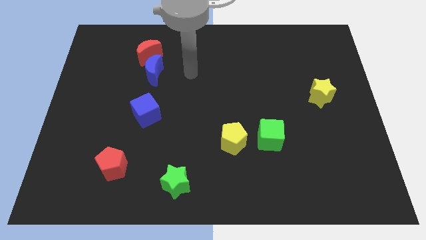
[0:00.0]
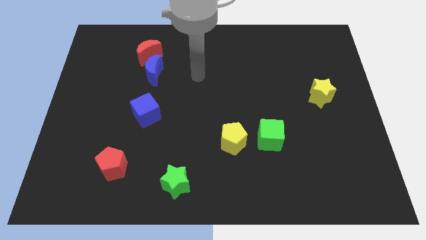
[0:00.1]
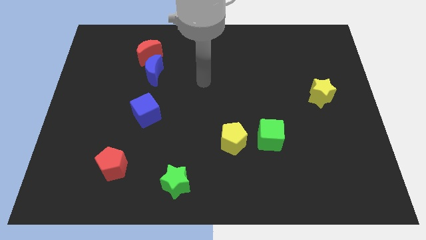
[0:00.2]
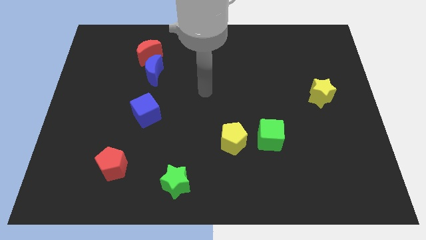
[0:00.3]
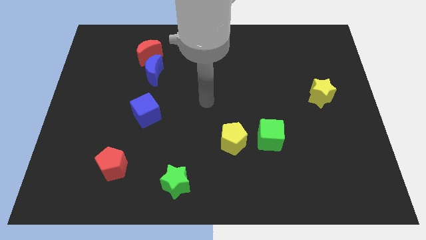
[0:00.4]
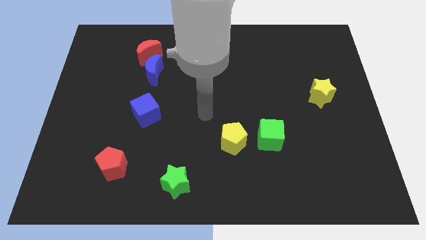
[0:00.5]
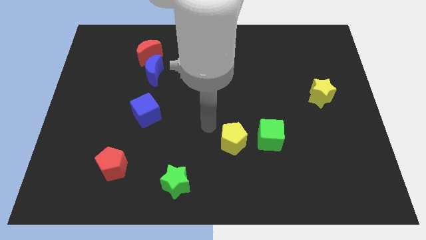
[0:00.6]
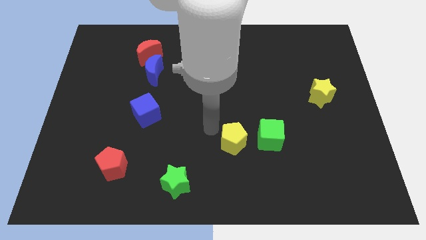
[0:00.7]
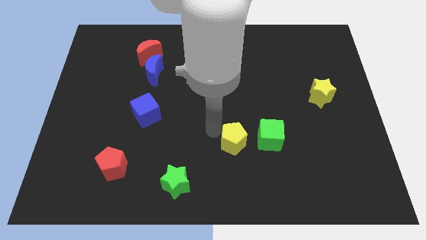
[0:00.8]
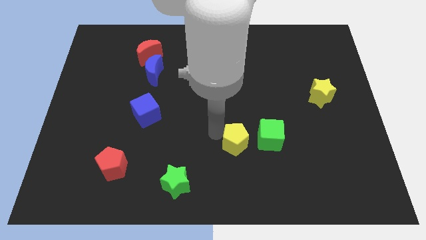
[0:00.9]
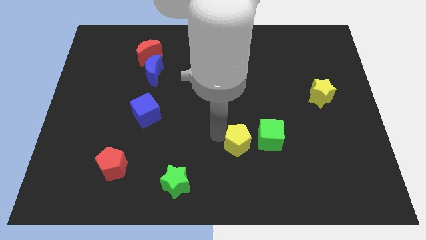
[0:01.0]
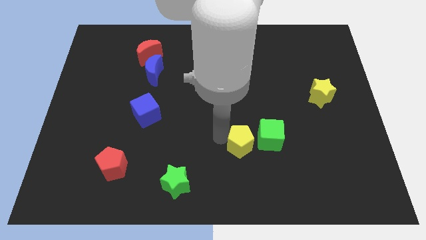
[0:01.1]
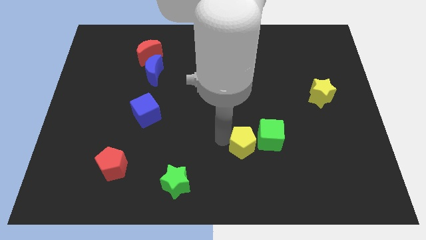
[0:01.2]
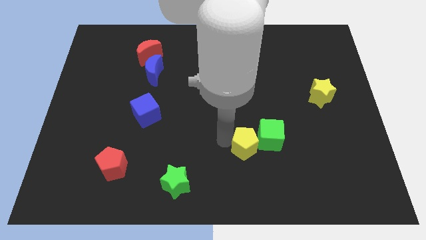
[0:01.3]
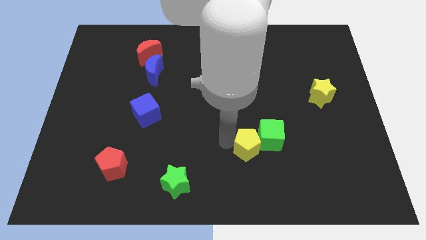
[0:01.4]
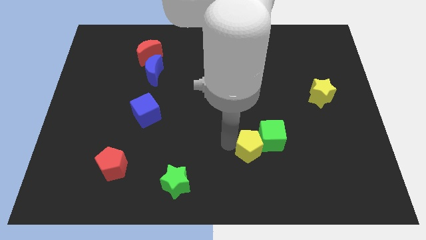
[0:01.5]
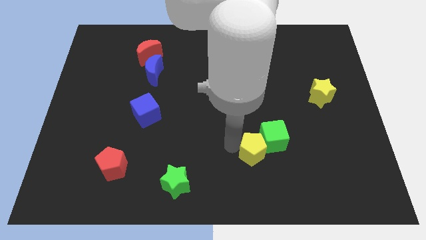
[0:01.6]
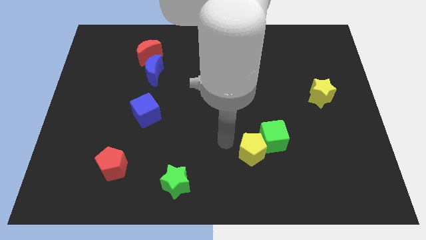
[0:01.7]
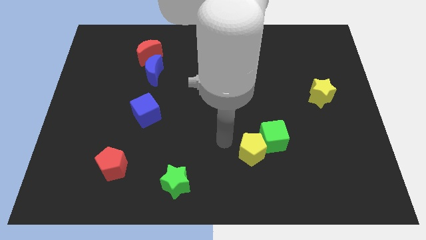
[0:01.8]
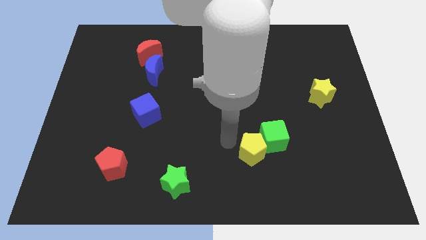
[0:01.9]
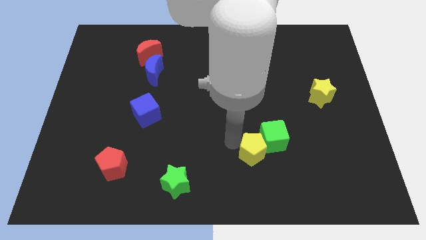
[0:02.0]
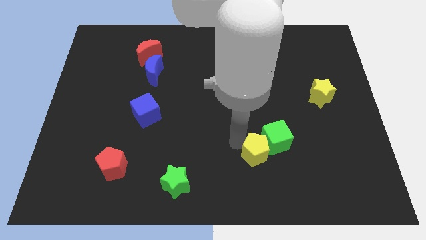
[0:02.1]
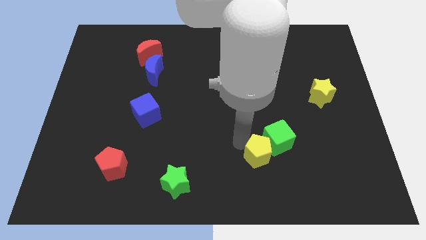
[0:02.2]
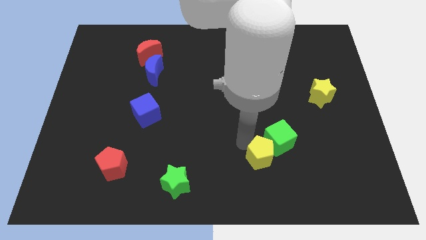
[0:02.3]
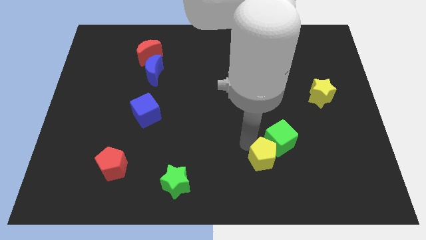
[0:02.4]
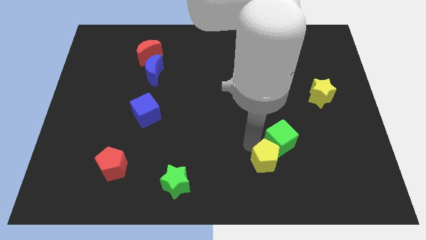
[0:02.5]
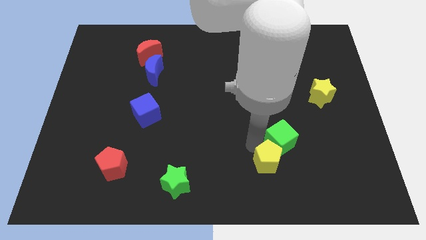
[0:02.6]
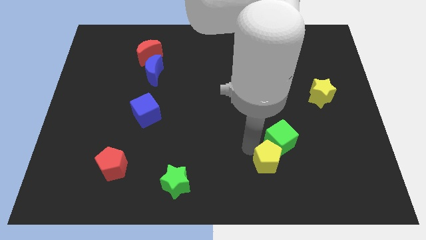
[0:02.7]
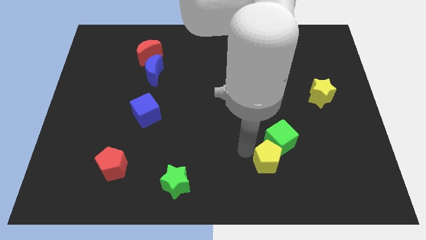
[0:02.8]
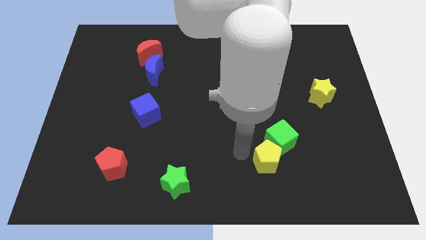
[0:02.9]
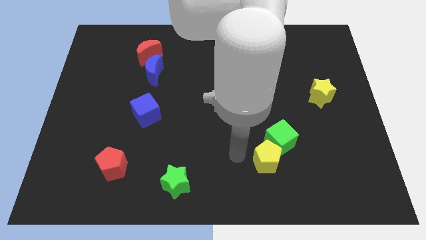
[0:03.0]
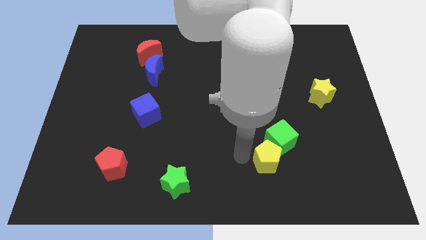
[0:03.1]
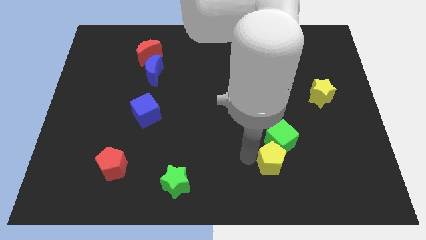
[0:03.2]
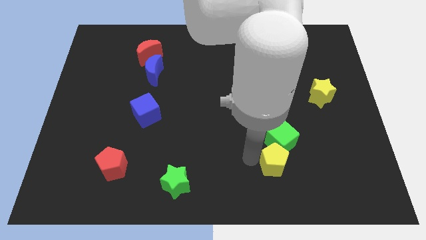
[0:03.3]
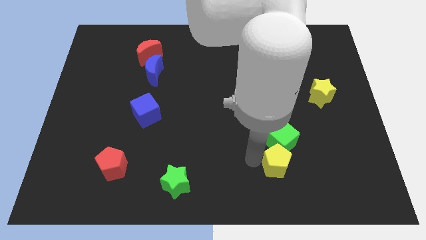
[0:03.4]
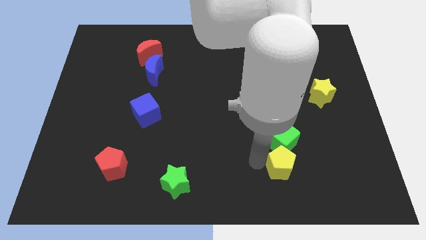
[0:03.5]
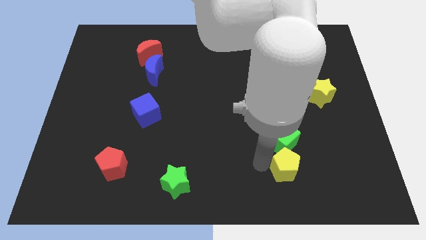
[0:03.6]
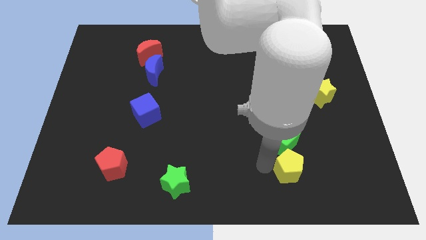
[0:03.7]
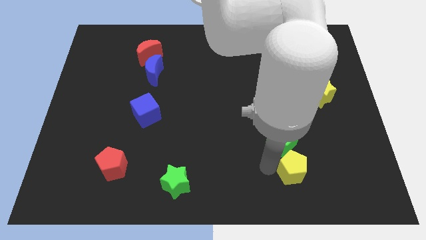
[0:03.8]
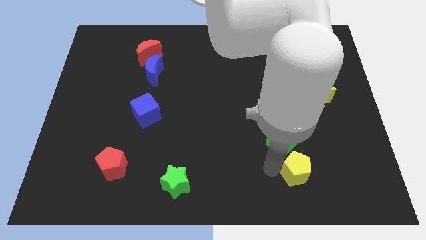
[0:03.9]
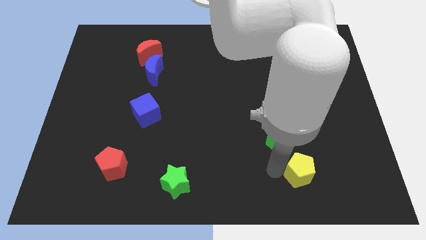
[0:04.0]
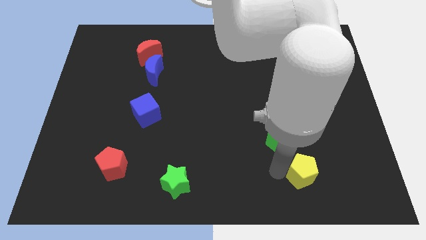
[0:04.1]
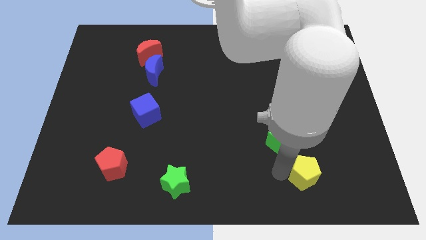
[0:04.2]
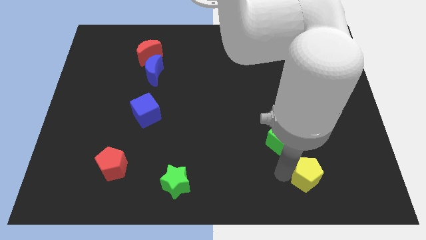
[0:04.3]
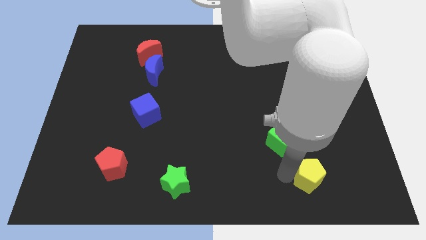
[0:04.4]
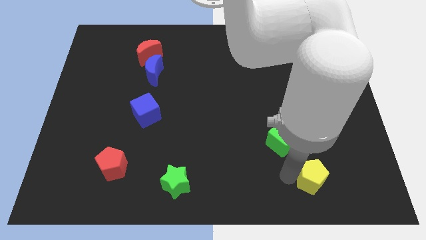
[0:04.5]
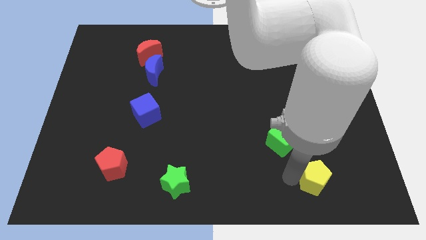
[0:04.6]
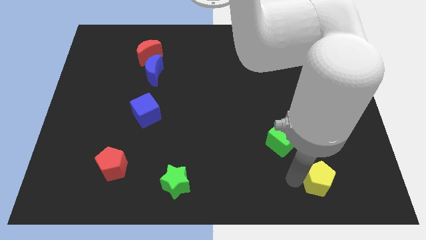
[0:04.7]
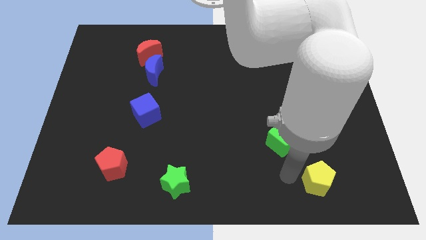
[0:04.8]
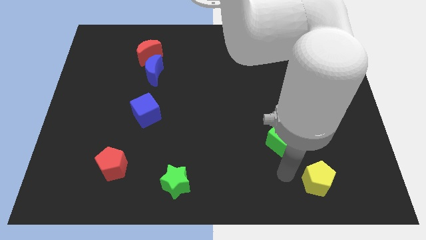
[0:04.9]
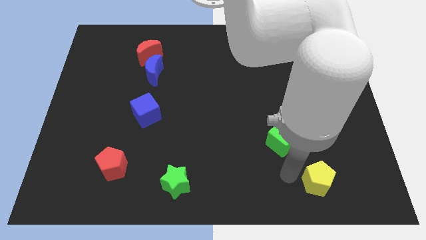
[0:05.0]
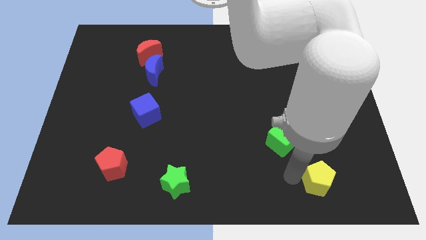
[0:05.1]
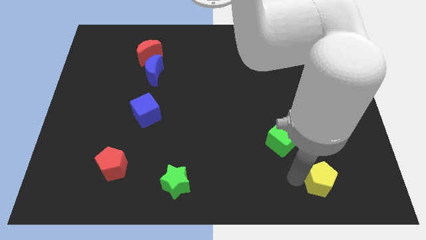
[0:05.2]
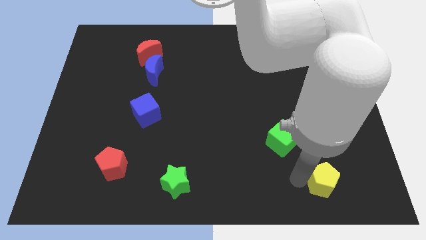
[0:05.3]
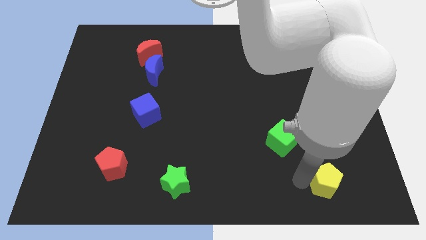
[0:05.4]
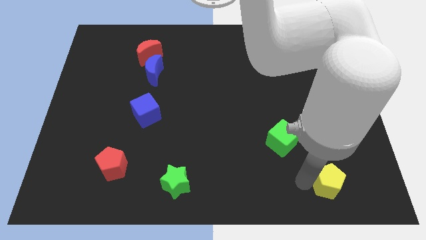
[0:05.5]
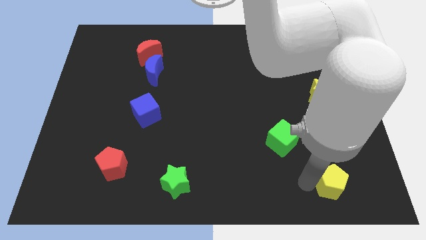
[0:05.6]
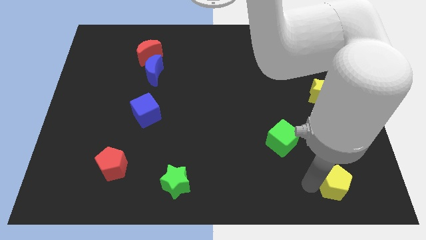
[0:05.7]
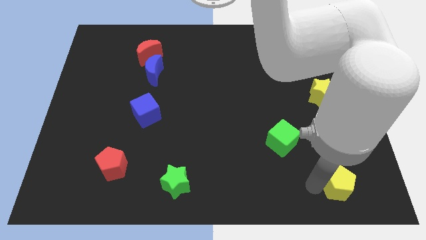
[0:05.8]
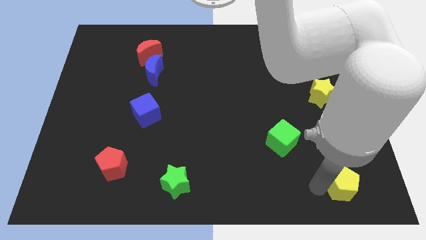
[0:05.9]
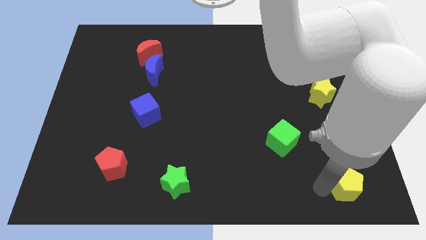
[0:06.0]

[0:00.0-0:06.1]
put the yellow pentagon to the bottom right of the board
